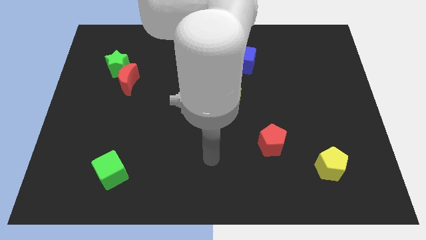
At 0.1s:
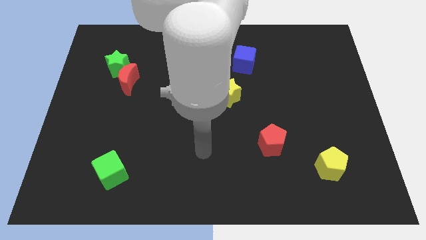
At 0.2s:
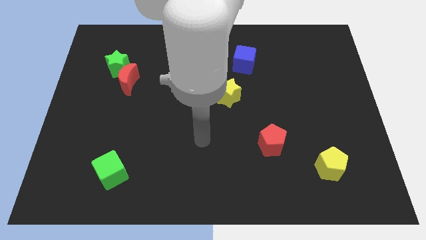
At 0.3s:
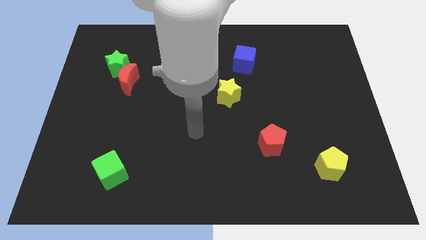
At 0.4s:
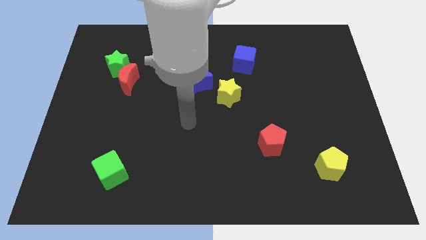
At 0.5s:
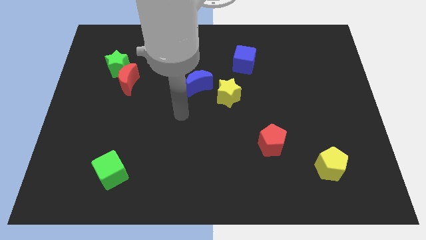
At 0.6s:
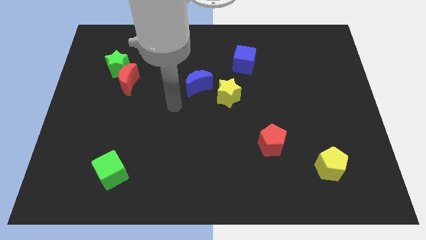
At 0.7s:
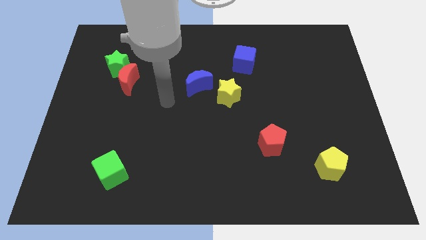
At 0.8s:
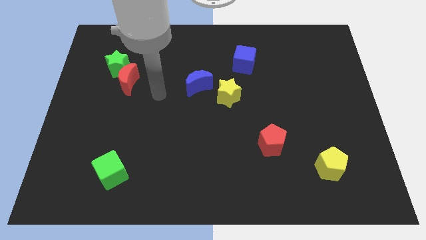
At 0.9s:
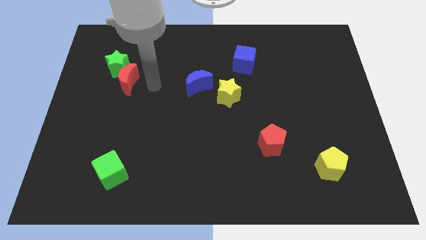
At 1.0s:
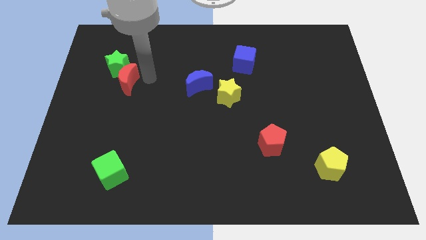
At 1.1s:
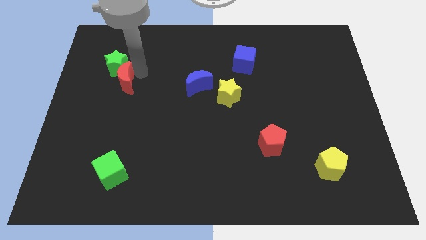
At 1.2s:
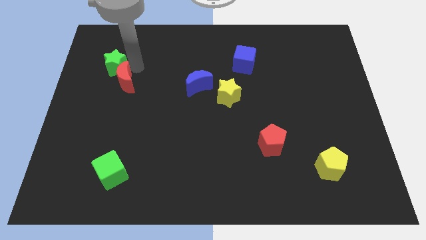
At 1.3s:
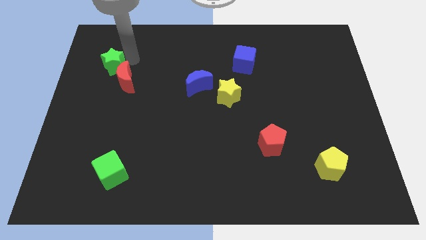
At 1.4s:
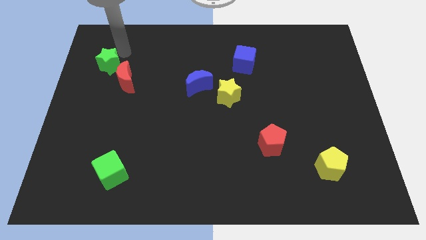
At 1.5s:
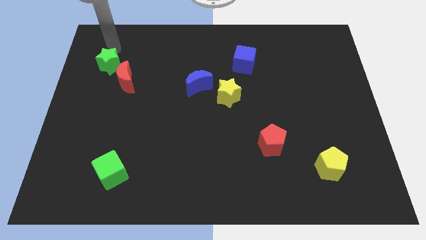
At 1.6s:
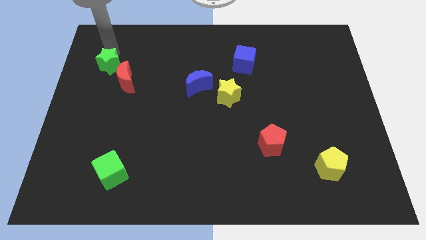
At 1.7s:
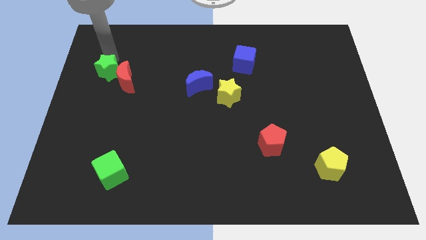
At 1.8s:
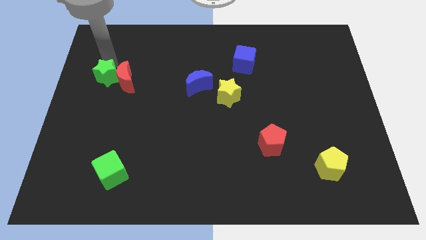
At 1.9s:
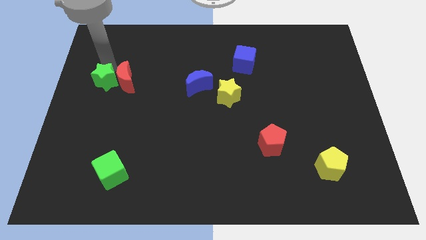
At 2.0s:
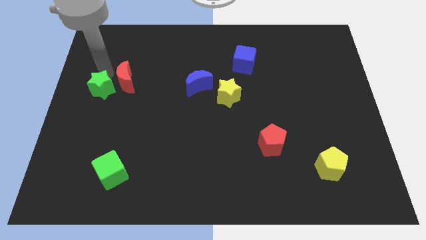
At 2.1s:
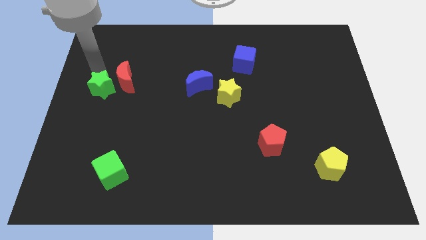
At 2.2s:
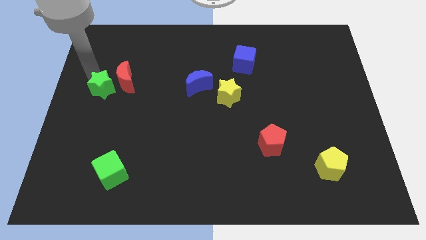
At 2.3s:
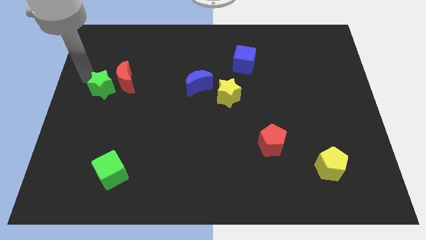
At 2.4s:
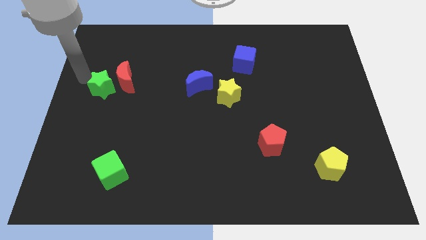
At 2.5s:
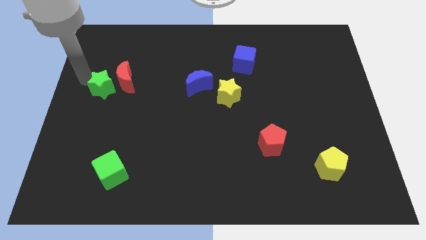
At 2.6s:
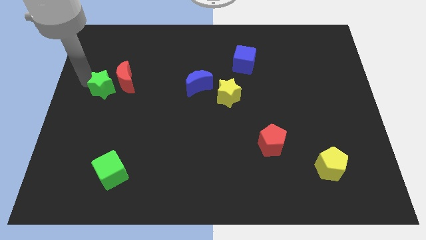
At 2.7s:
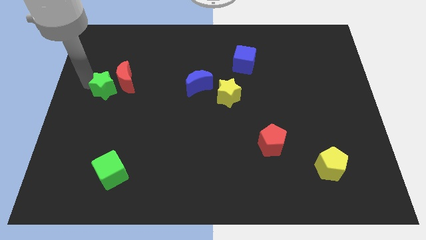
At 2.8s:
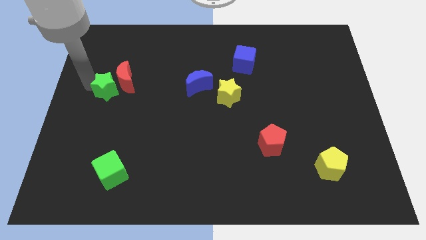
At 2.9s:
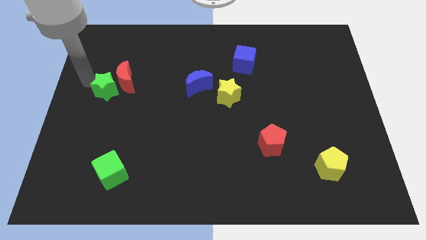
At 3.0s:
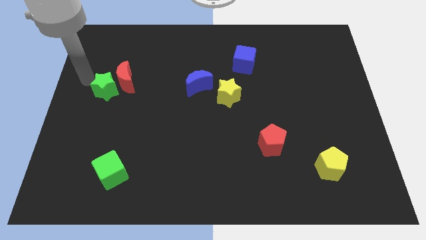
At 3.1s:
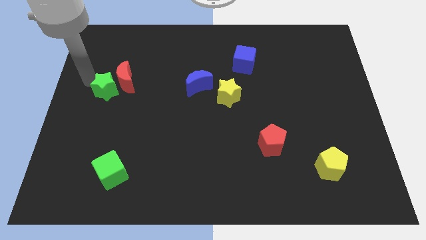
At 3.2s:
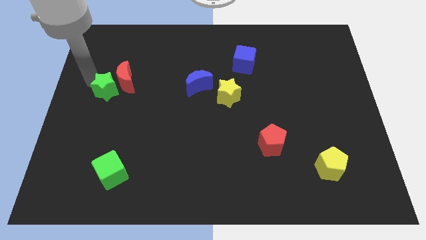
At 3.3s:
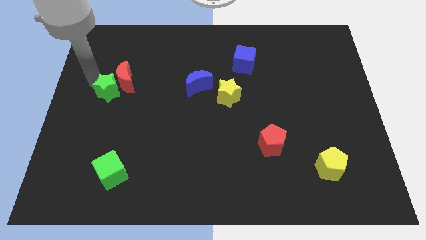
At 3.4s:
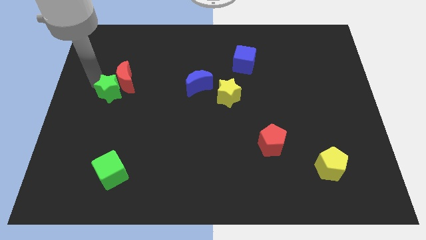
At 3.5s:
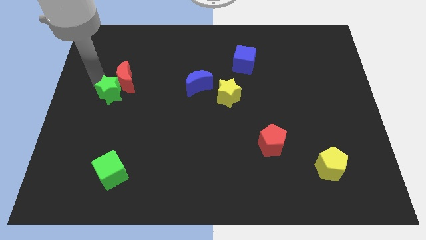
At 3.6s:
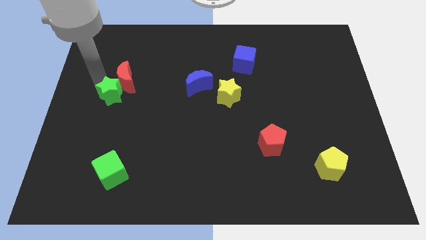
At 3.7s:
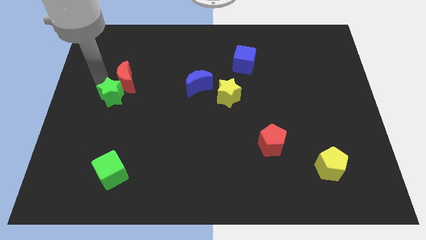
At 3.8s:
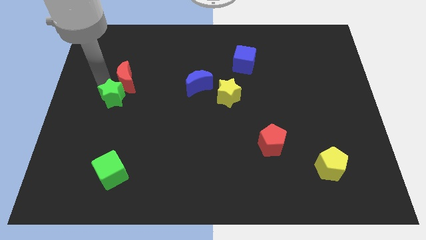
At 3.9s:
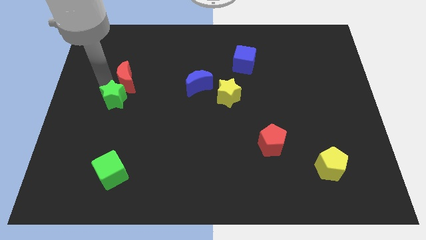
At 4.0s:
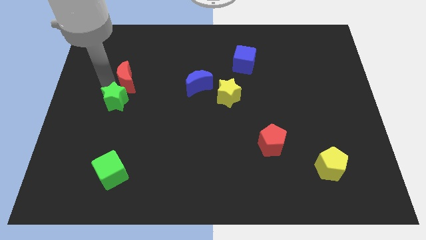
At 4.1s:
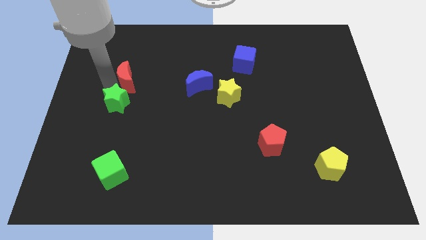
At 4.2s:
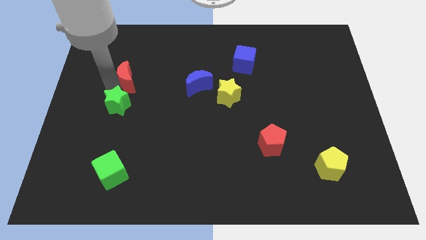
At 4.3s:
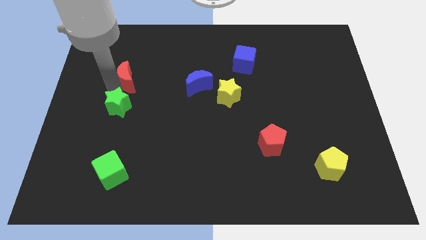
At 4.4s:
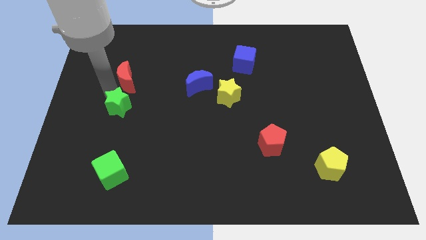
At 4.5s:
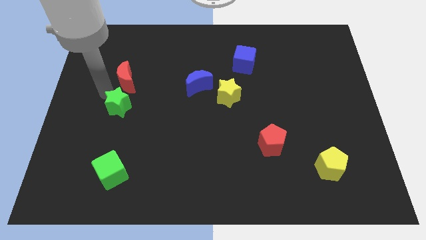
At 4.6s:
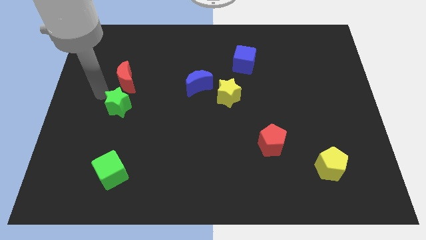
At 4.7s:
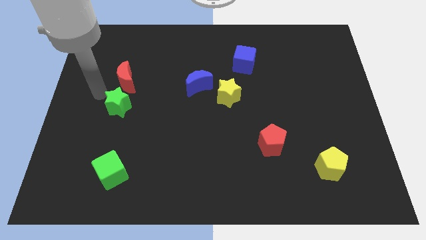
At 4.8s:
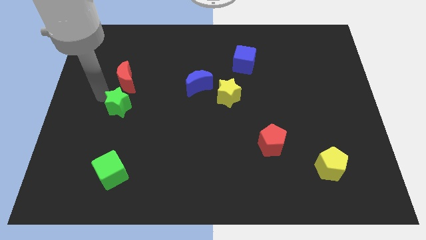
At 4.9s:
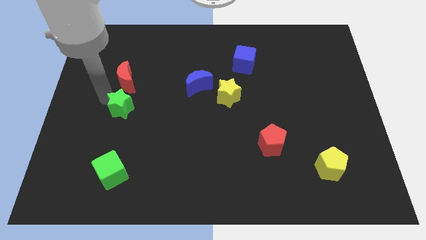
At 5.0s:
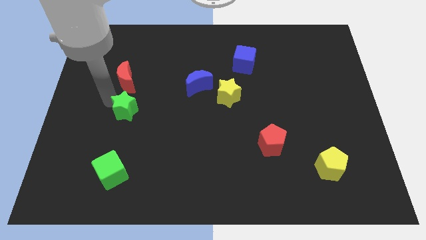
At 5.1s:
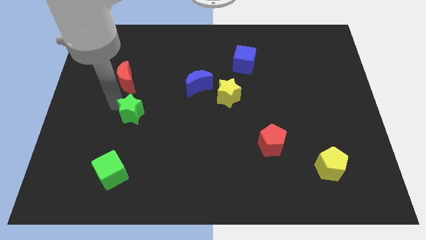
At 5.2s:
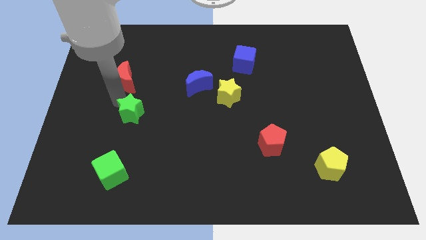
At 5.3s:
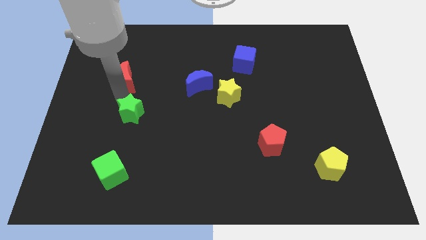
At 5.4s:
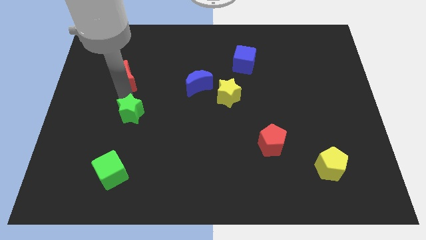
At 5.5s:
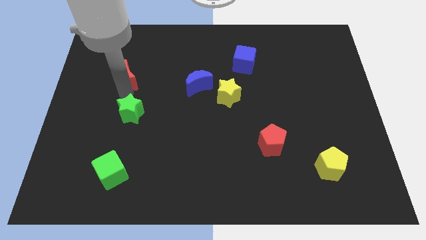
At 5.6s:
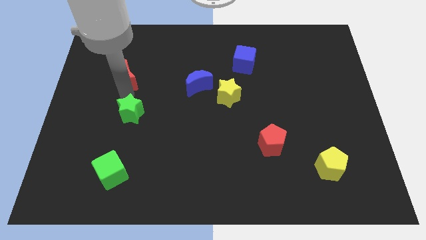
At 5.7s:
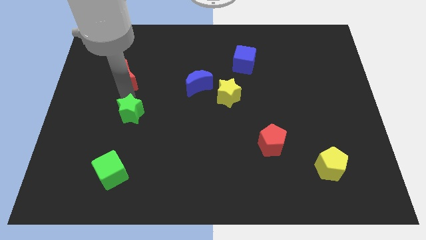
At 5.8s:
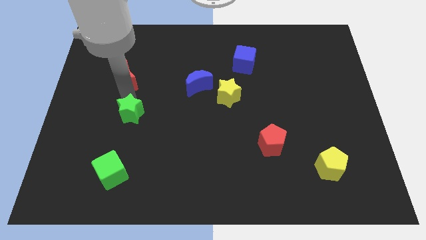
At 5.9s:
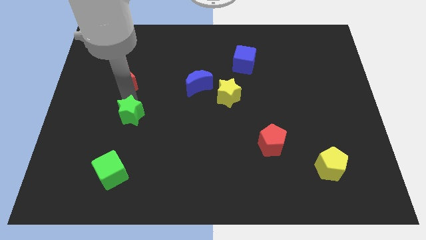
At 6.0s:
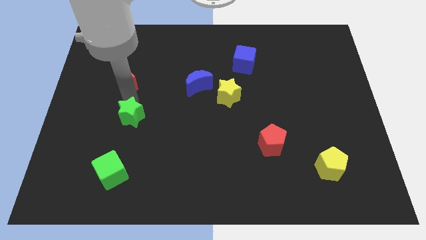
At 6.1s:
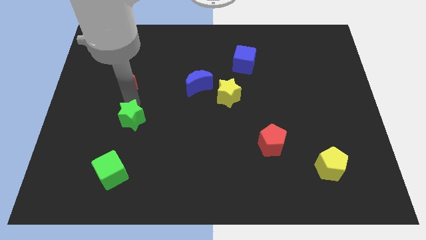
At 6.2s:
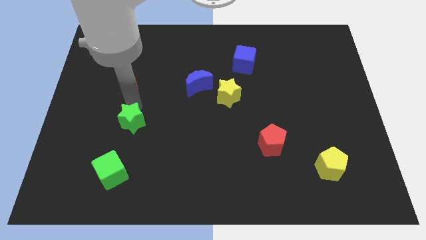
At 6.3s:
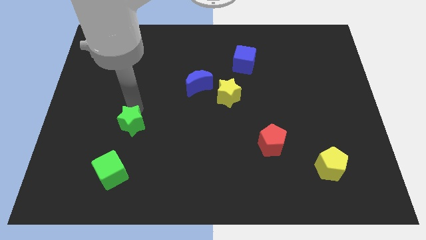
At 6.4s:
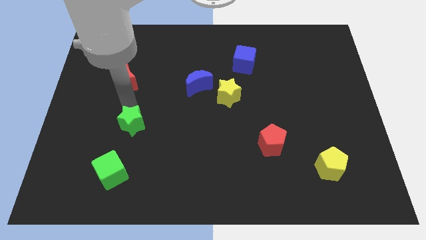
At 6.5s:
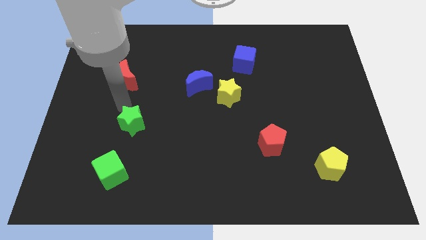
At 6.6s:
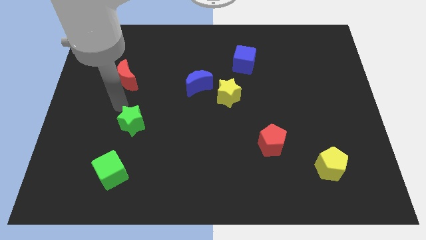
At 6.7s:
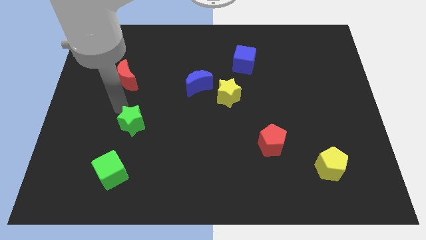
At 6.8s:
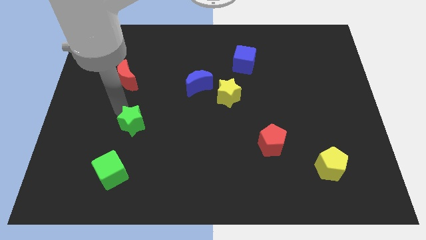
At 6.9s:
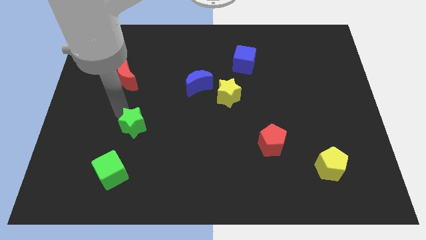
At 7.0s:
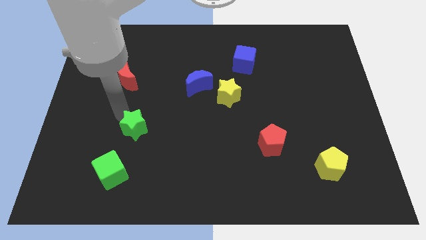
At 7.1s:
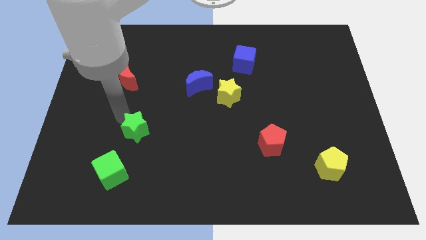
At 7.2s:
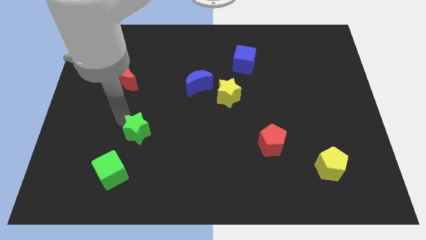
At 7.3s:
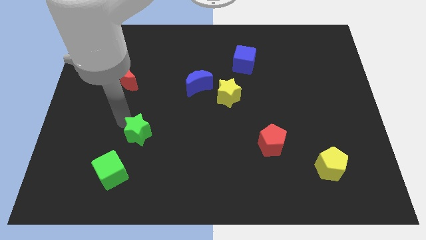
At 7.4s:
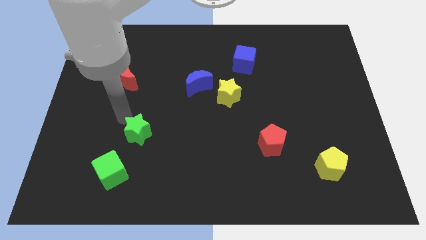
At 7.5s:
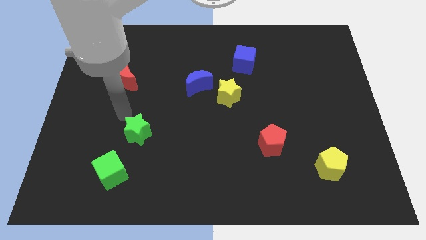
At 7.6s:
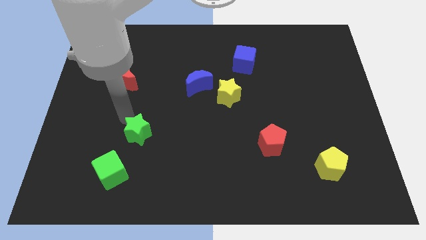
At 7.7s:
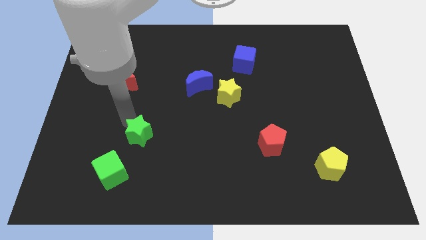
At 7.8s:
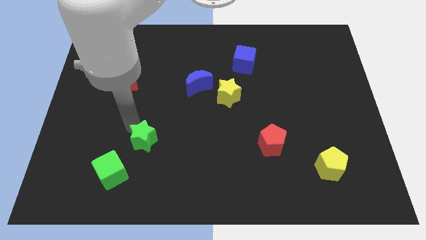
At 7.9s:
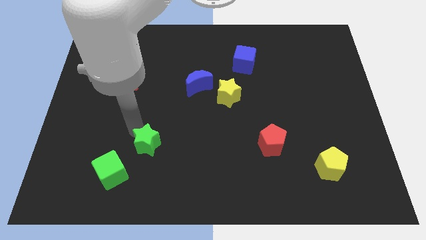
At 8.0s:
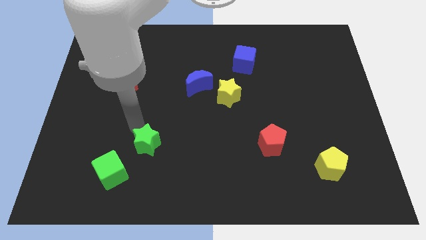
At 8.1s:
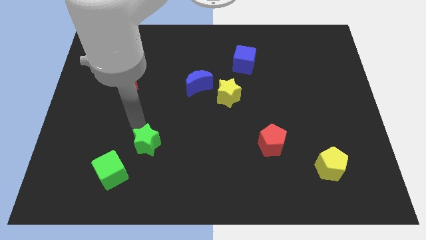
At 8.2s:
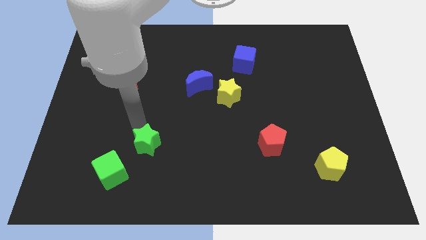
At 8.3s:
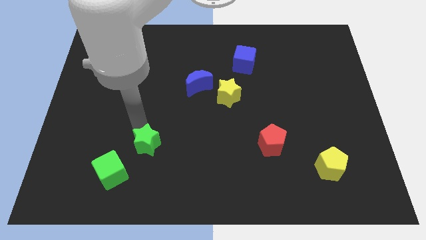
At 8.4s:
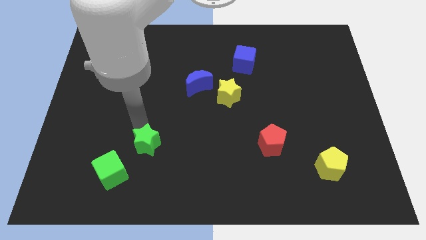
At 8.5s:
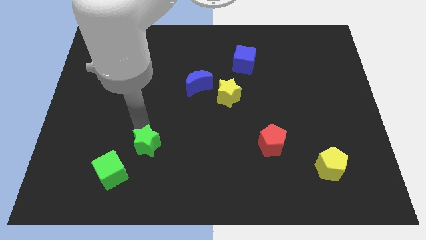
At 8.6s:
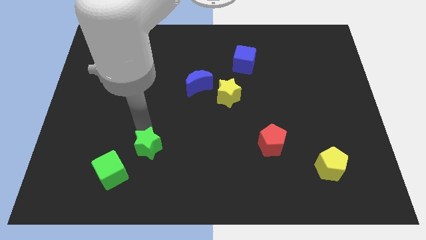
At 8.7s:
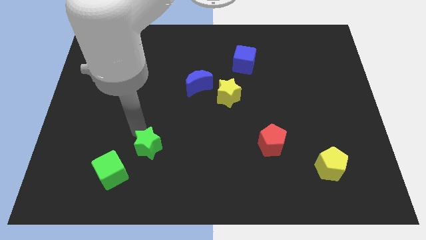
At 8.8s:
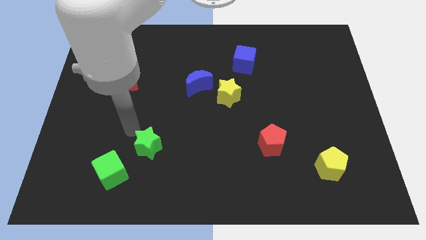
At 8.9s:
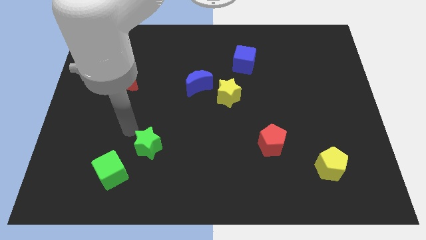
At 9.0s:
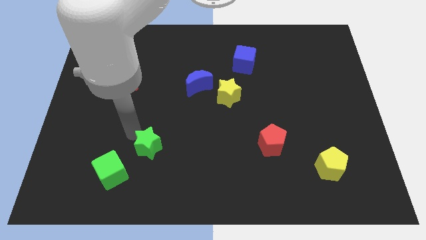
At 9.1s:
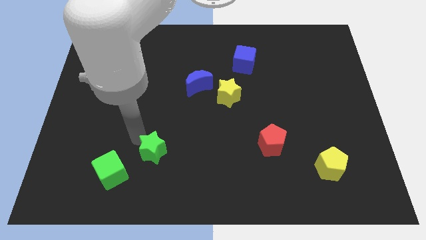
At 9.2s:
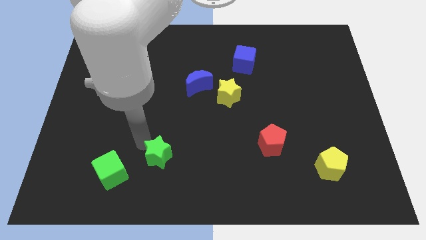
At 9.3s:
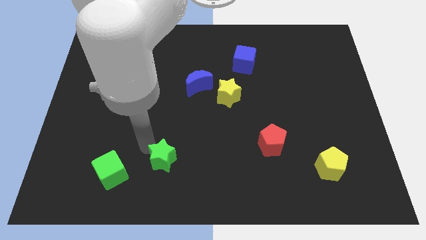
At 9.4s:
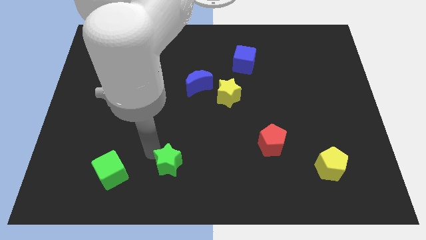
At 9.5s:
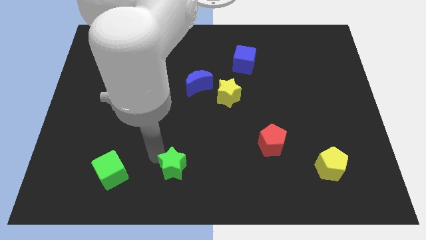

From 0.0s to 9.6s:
put the green star to the bottom
